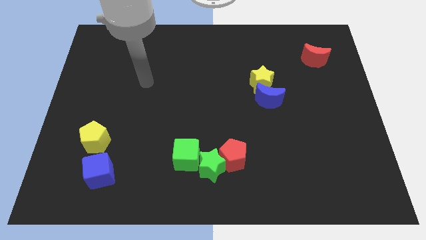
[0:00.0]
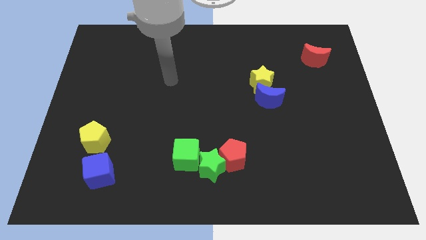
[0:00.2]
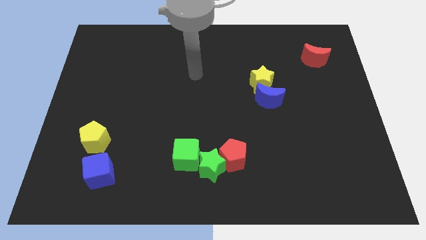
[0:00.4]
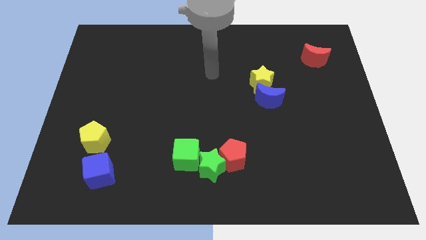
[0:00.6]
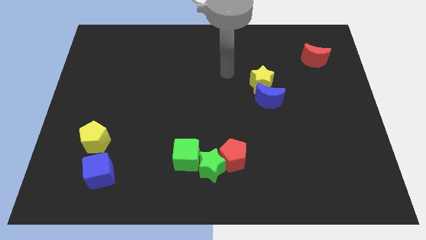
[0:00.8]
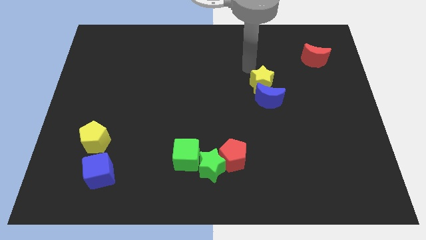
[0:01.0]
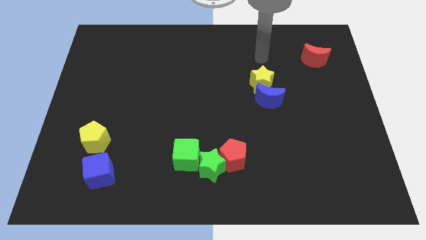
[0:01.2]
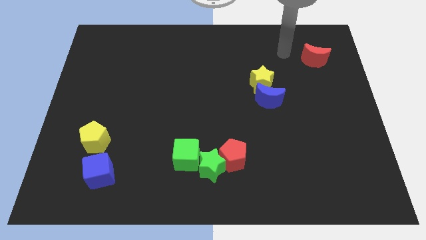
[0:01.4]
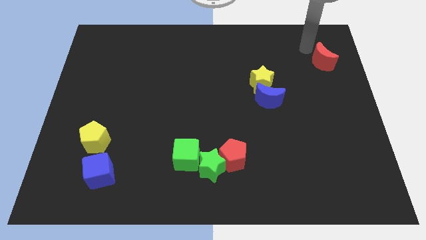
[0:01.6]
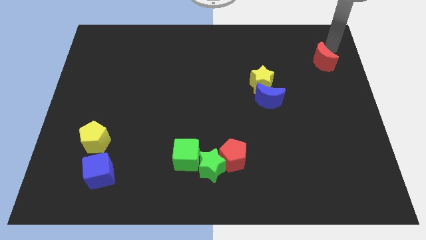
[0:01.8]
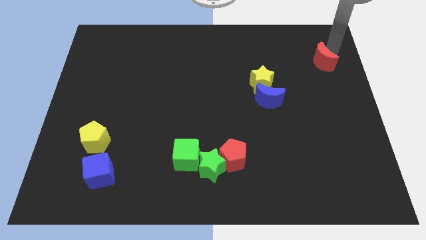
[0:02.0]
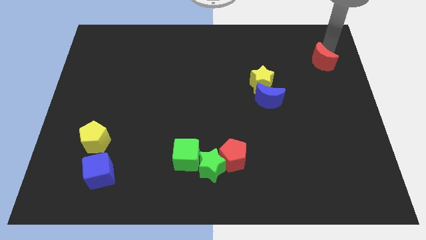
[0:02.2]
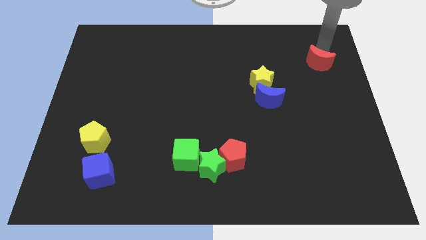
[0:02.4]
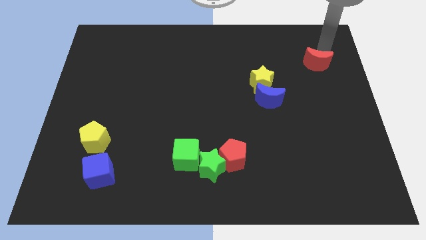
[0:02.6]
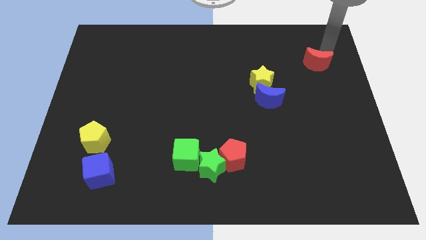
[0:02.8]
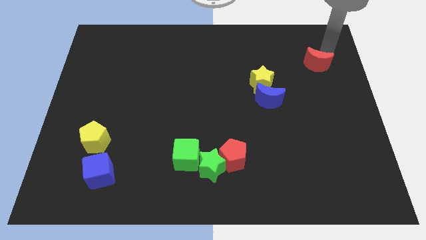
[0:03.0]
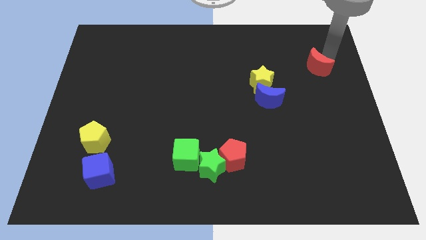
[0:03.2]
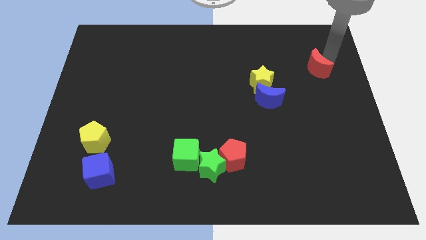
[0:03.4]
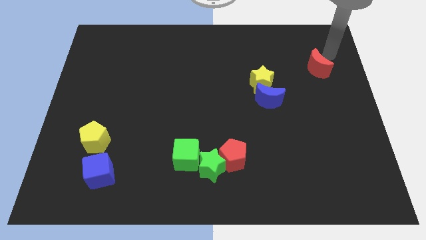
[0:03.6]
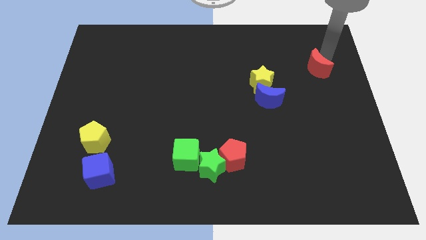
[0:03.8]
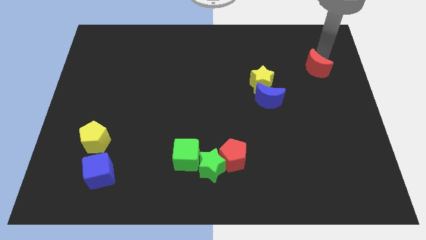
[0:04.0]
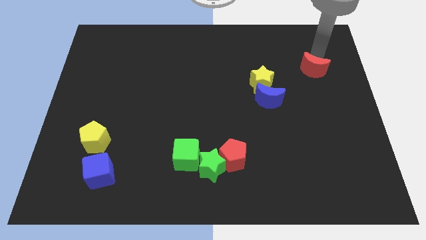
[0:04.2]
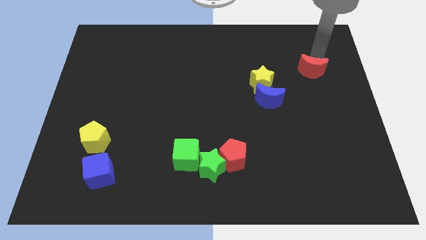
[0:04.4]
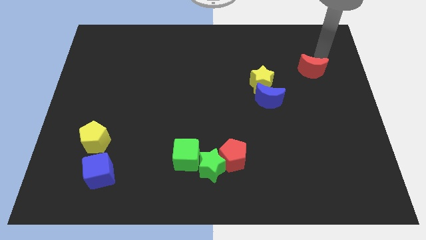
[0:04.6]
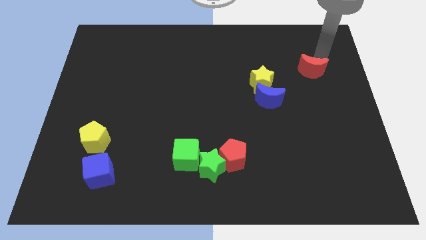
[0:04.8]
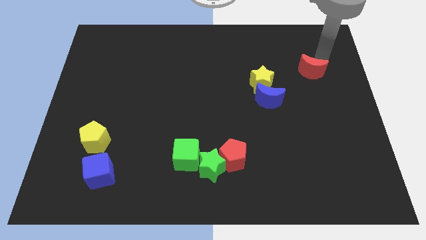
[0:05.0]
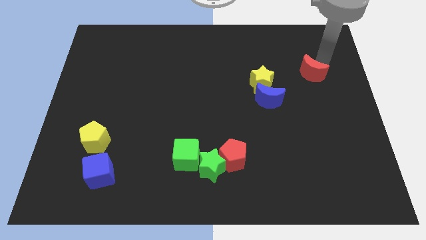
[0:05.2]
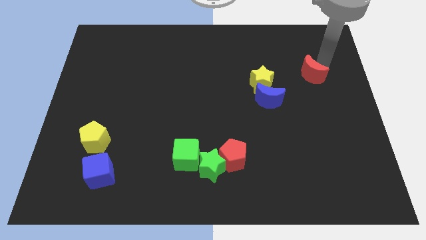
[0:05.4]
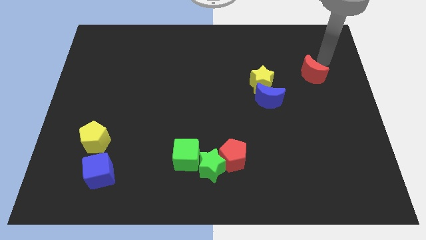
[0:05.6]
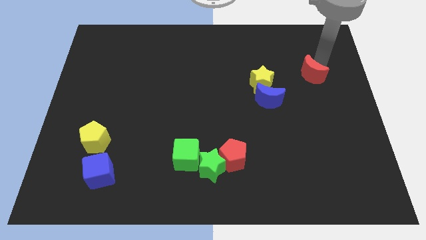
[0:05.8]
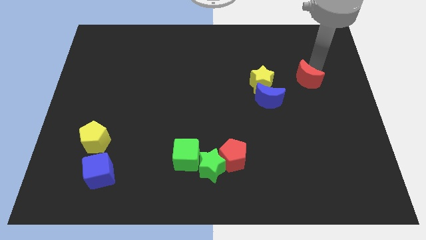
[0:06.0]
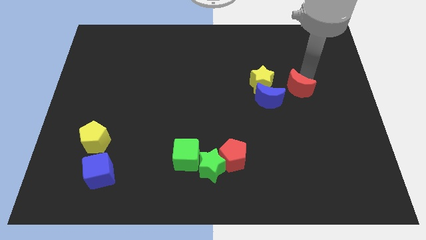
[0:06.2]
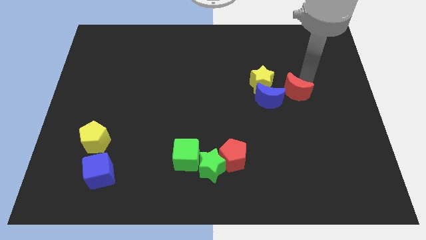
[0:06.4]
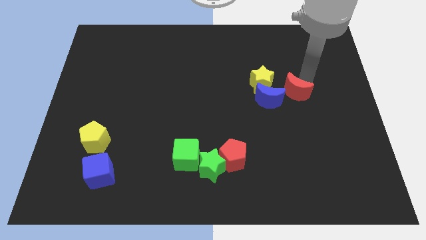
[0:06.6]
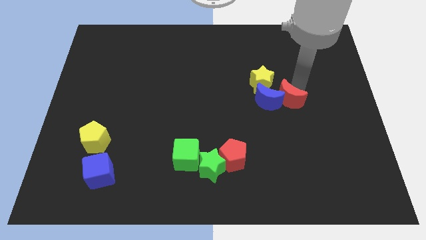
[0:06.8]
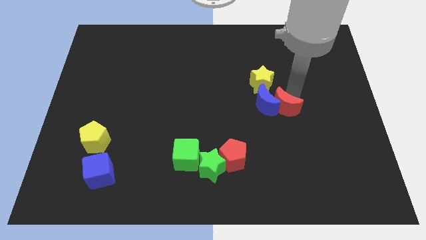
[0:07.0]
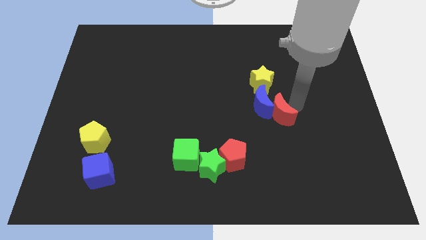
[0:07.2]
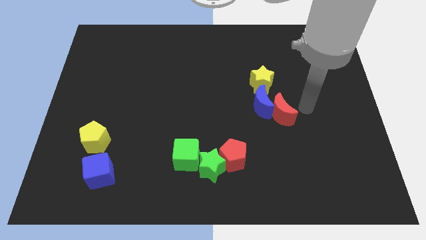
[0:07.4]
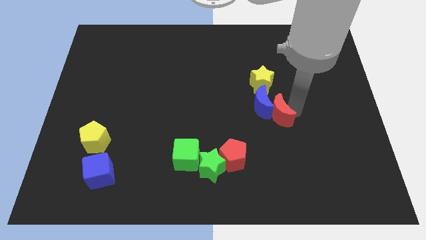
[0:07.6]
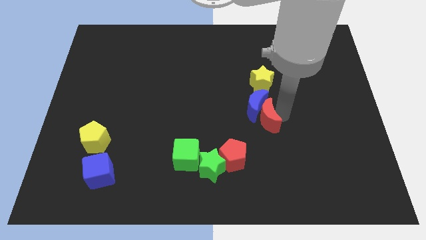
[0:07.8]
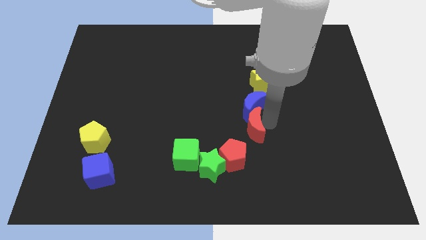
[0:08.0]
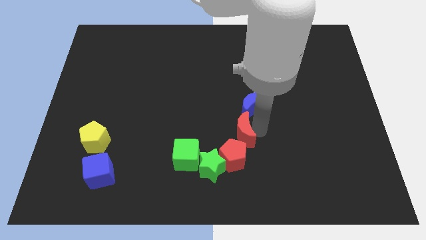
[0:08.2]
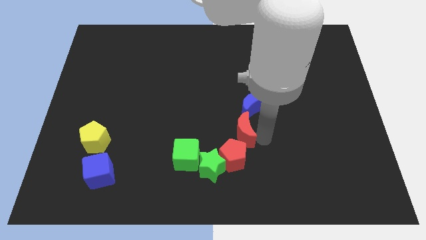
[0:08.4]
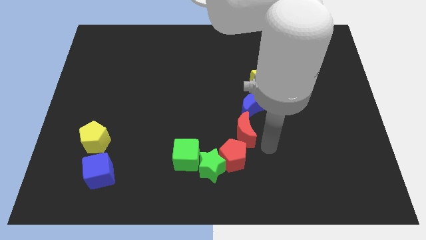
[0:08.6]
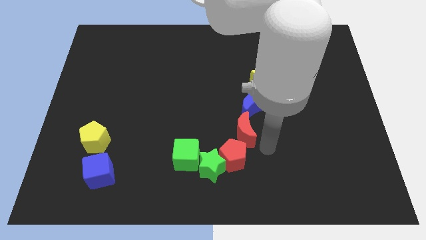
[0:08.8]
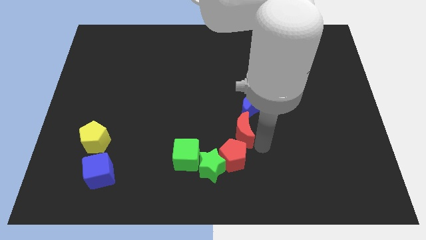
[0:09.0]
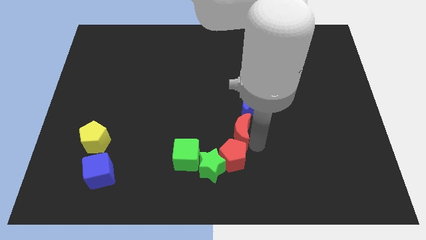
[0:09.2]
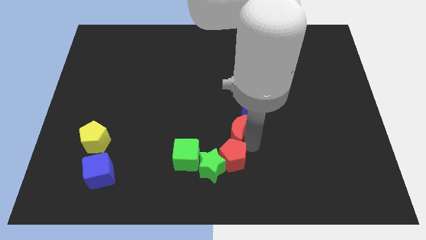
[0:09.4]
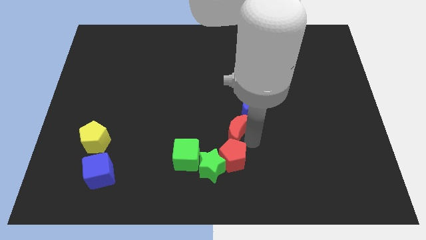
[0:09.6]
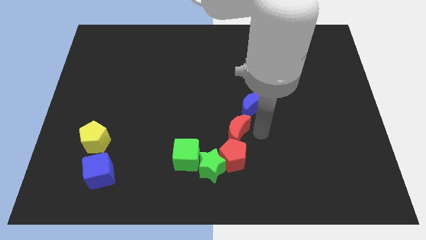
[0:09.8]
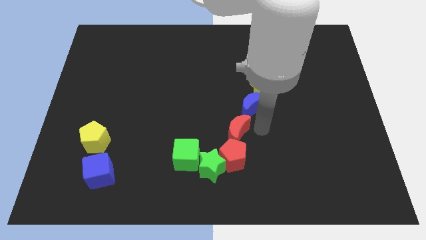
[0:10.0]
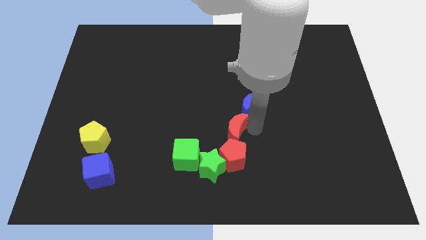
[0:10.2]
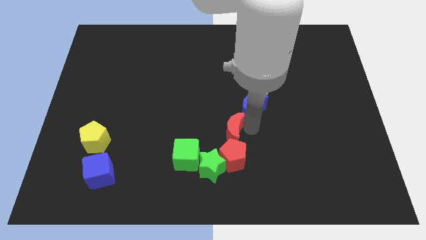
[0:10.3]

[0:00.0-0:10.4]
move the red moon diagonally up and to the left of the red pentagon

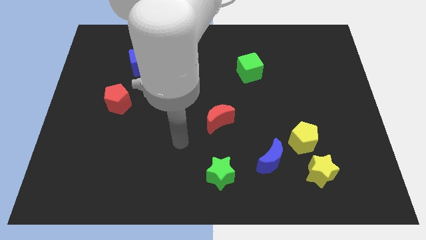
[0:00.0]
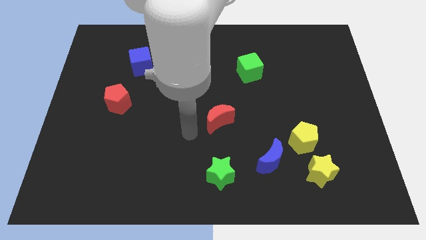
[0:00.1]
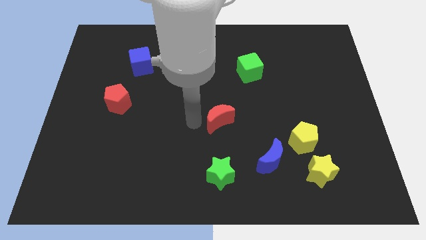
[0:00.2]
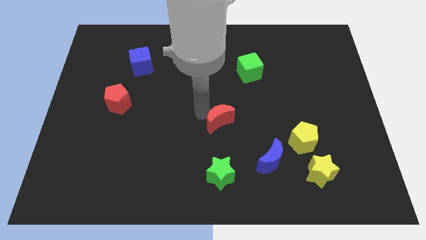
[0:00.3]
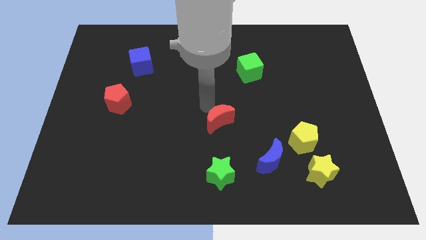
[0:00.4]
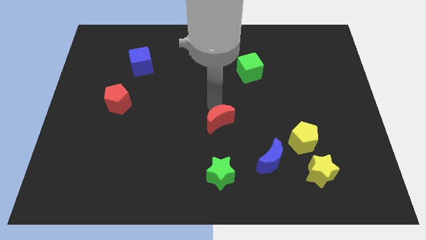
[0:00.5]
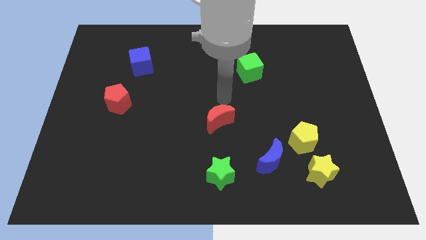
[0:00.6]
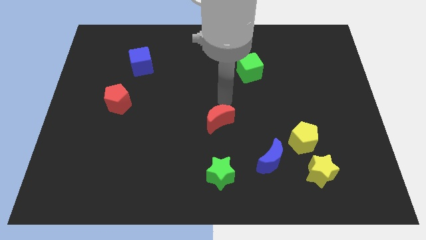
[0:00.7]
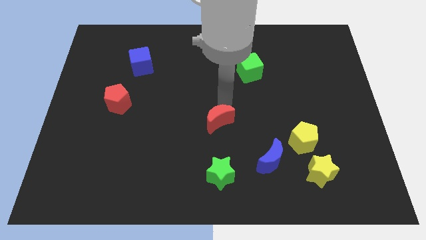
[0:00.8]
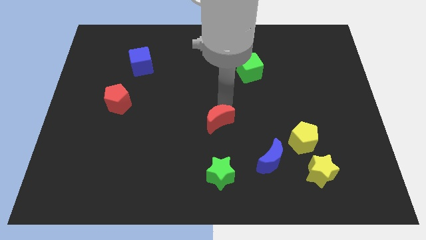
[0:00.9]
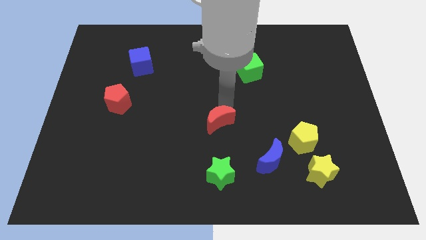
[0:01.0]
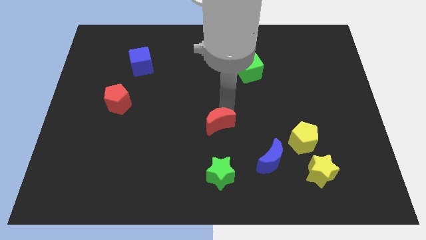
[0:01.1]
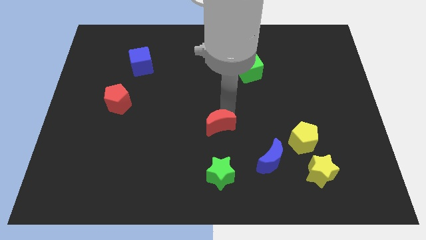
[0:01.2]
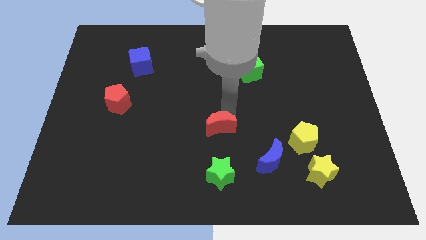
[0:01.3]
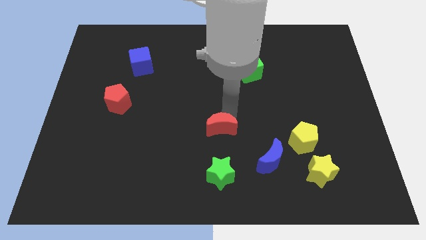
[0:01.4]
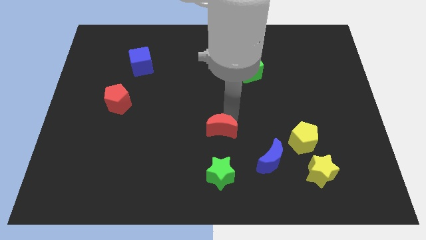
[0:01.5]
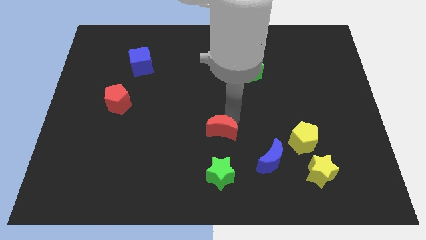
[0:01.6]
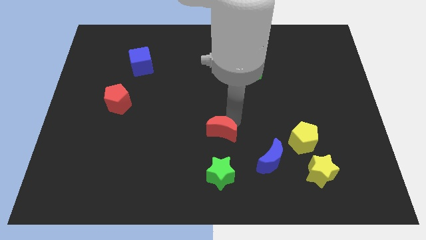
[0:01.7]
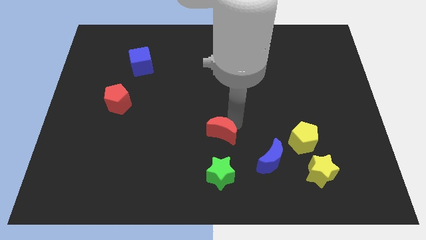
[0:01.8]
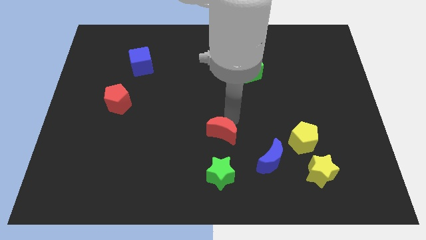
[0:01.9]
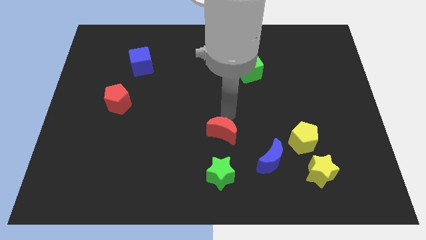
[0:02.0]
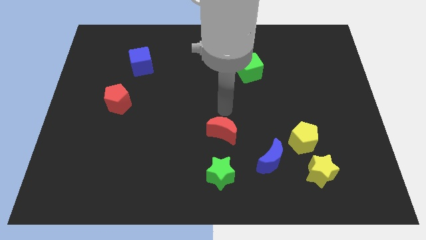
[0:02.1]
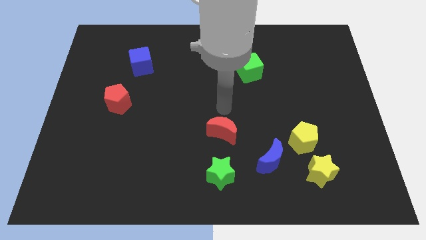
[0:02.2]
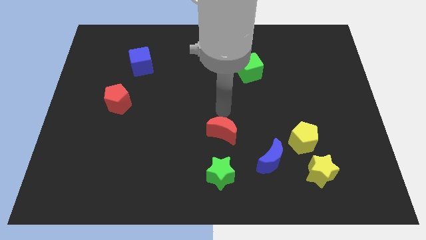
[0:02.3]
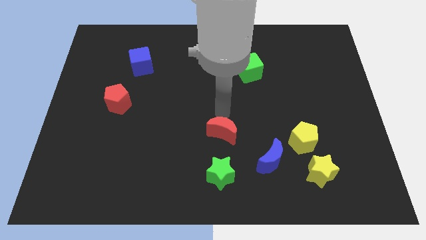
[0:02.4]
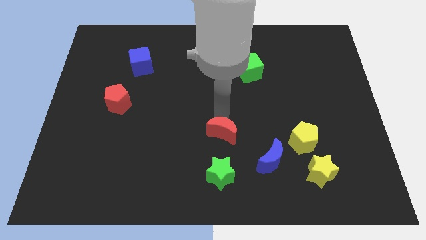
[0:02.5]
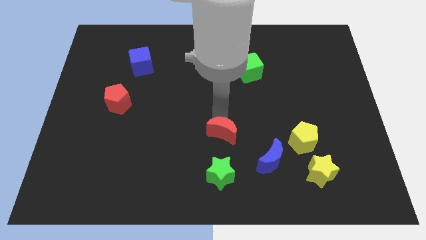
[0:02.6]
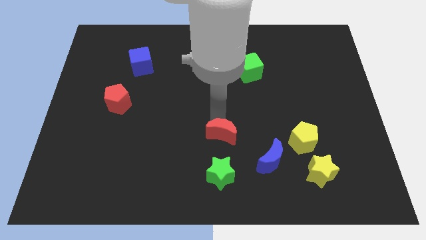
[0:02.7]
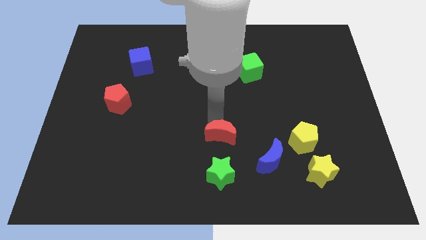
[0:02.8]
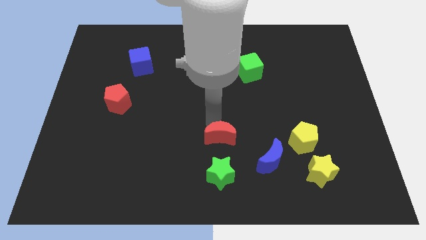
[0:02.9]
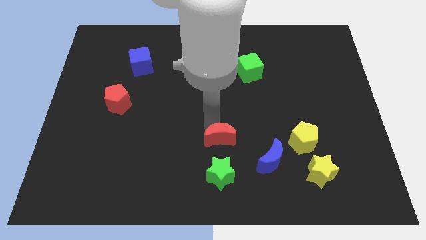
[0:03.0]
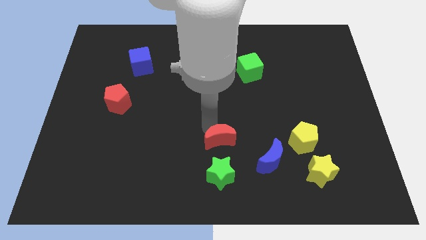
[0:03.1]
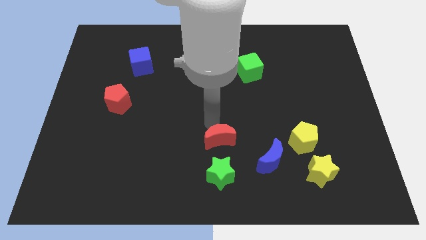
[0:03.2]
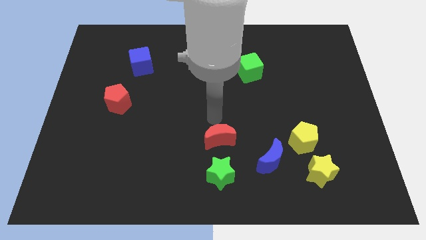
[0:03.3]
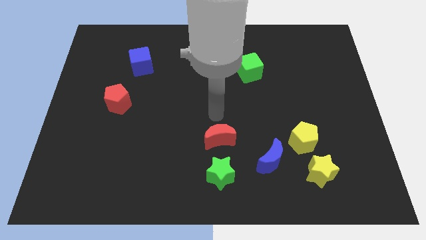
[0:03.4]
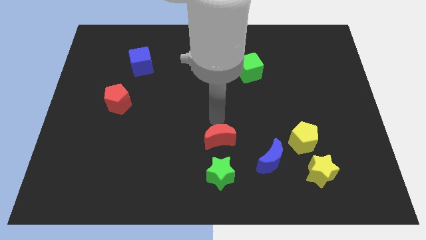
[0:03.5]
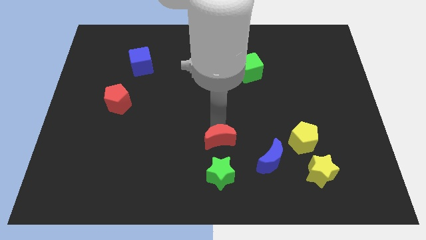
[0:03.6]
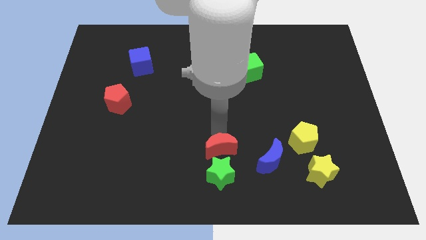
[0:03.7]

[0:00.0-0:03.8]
slide the red moon to the left of the blue moon
